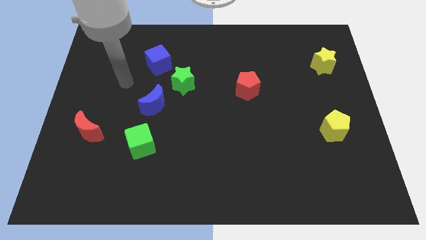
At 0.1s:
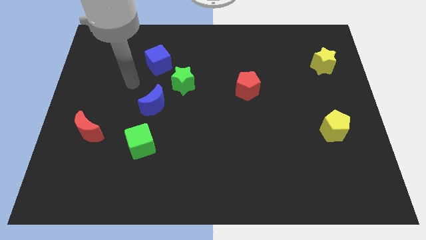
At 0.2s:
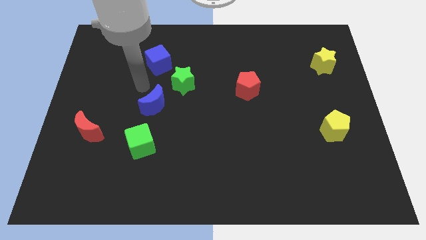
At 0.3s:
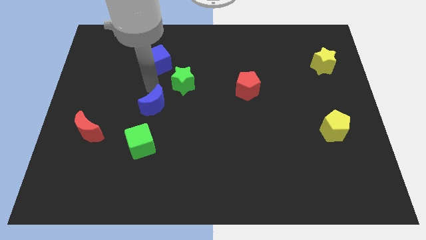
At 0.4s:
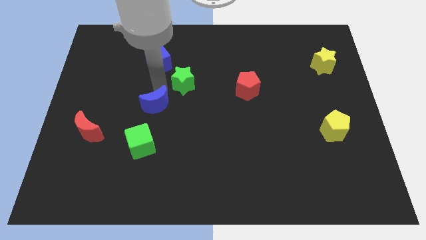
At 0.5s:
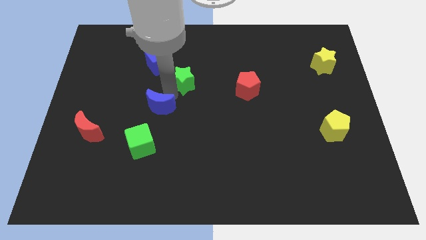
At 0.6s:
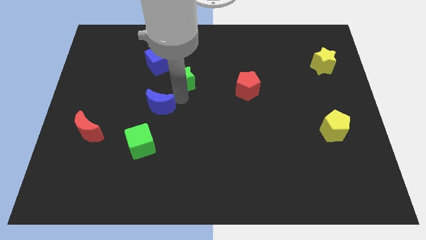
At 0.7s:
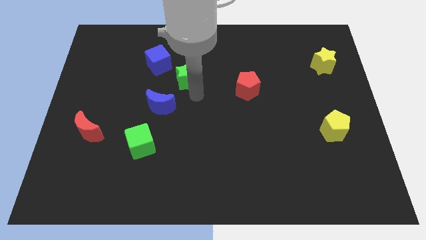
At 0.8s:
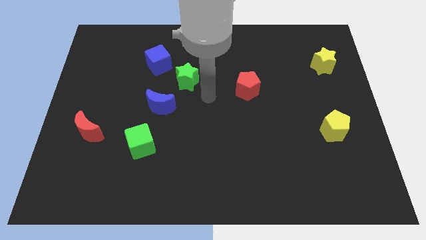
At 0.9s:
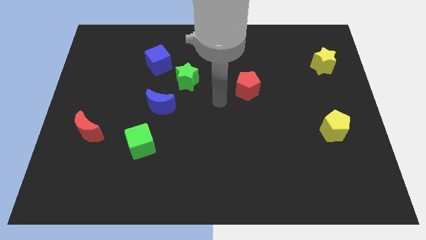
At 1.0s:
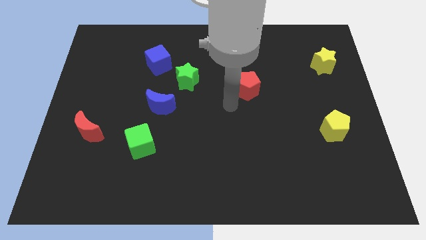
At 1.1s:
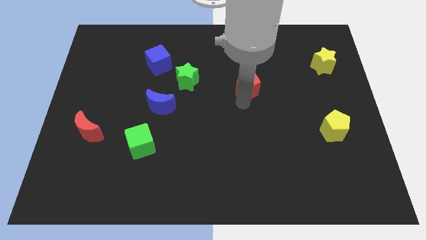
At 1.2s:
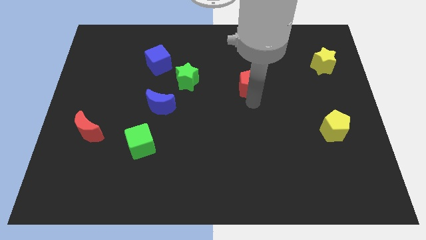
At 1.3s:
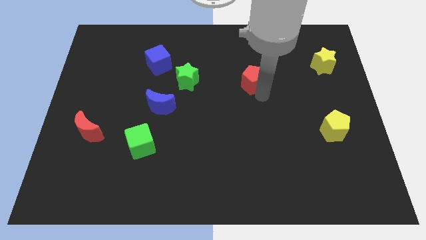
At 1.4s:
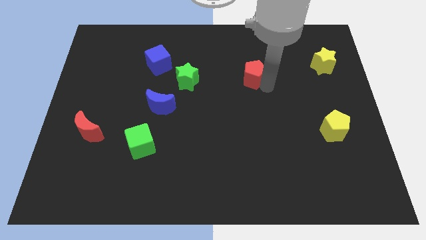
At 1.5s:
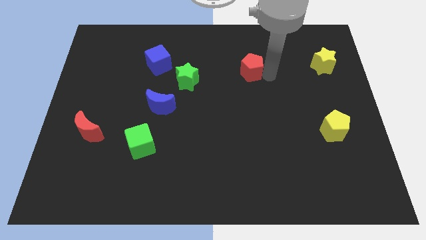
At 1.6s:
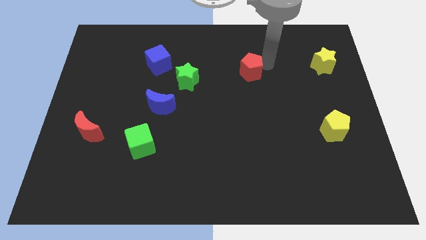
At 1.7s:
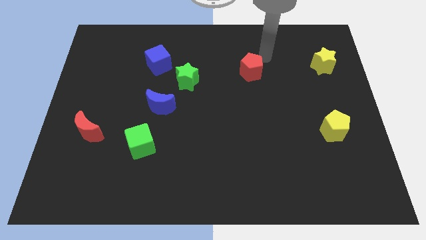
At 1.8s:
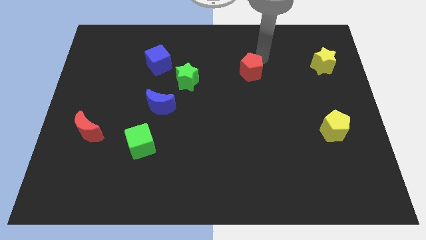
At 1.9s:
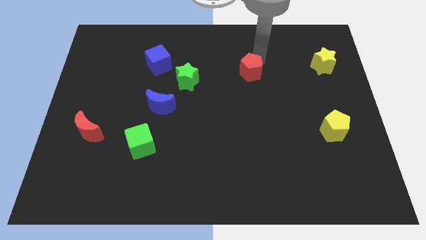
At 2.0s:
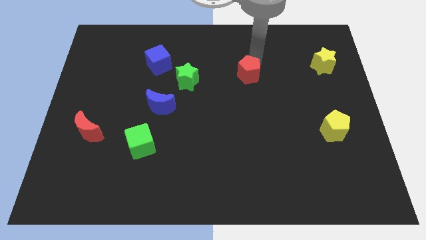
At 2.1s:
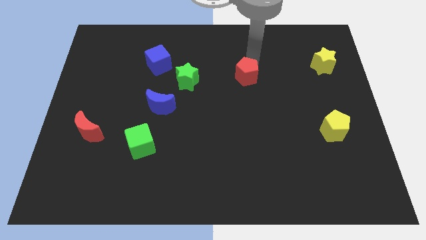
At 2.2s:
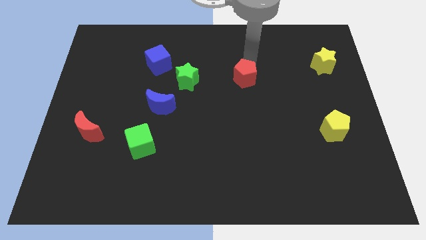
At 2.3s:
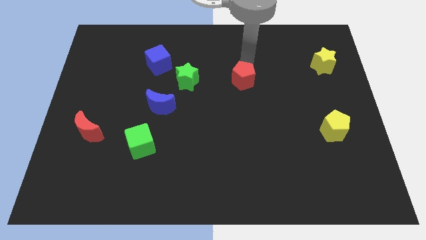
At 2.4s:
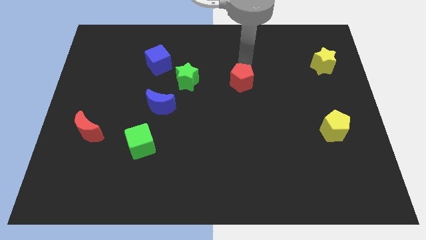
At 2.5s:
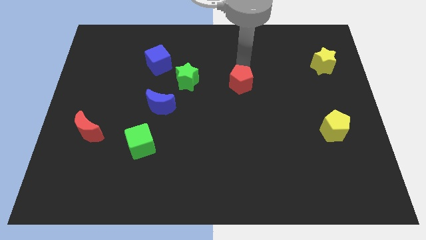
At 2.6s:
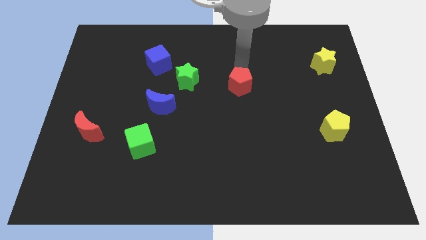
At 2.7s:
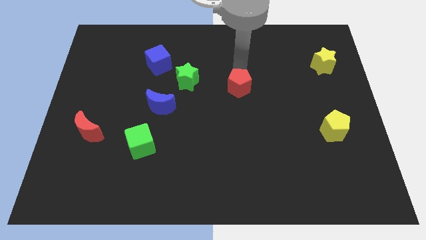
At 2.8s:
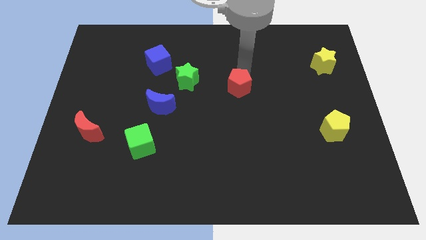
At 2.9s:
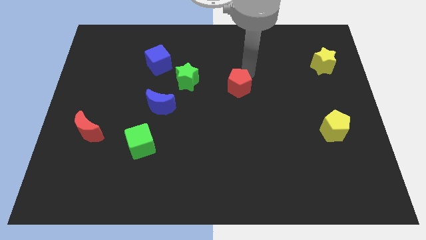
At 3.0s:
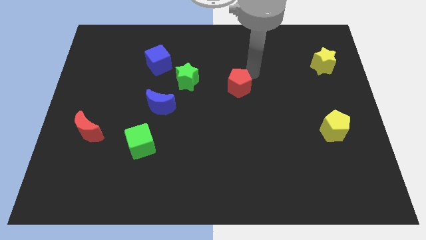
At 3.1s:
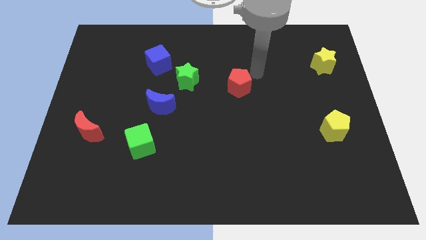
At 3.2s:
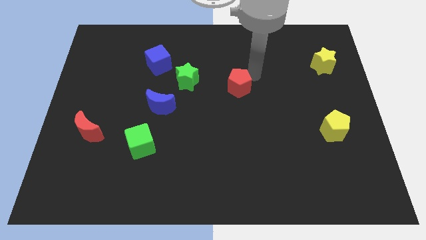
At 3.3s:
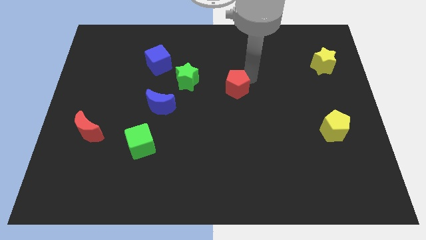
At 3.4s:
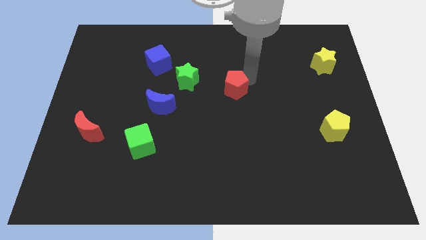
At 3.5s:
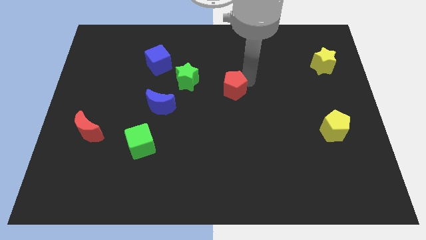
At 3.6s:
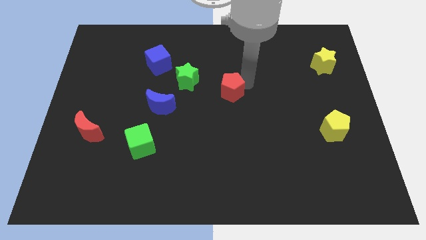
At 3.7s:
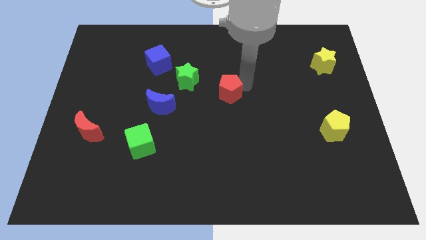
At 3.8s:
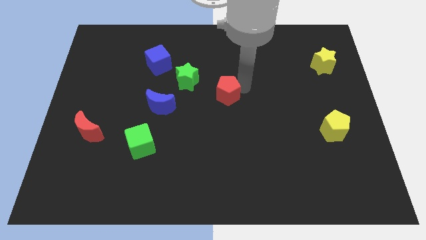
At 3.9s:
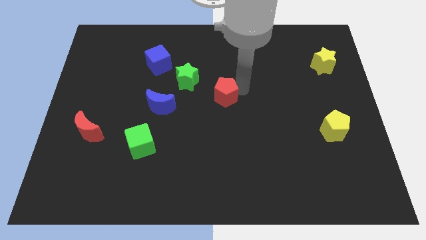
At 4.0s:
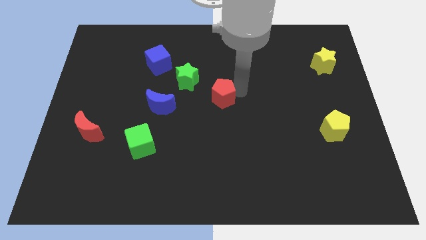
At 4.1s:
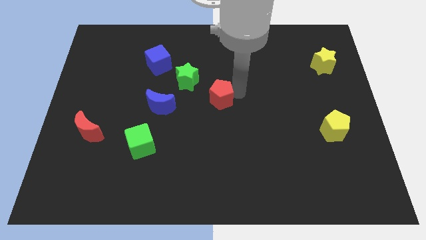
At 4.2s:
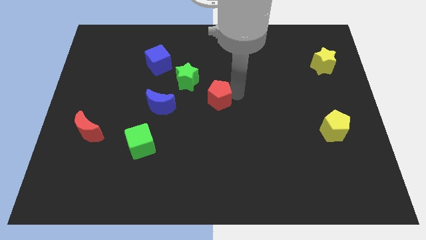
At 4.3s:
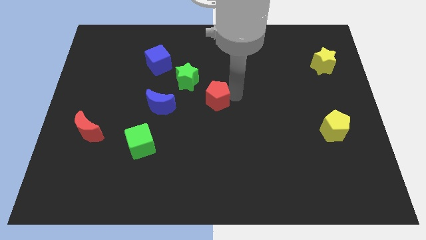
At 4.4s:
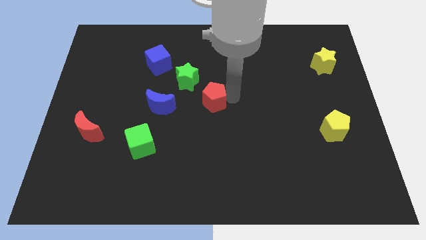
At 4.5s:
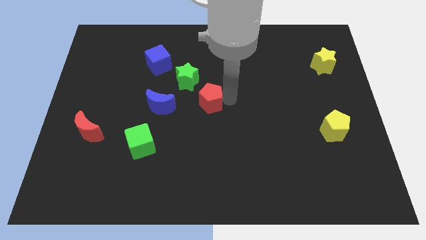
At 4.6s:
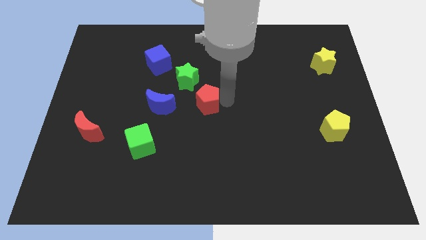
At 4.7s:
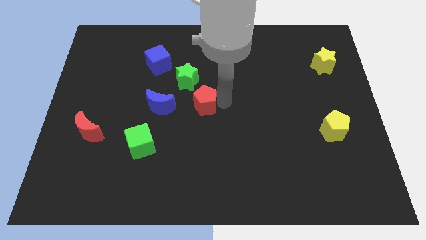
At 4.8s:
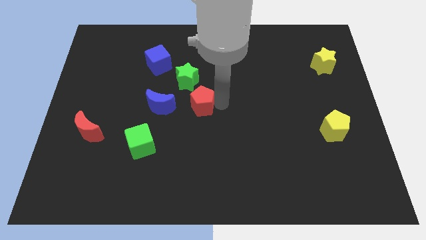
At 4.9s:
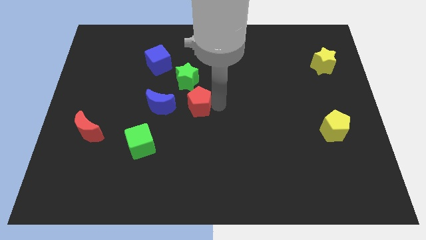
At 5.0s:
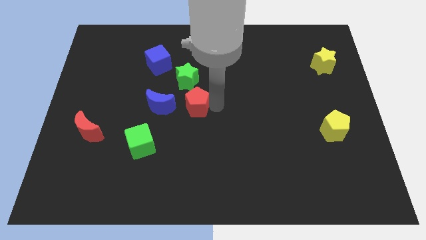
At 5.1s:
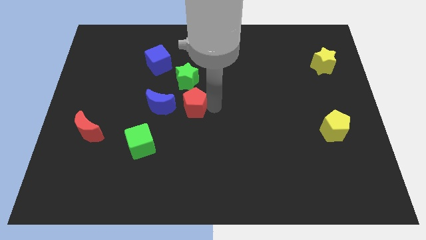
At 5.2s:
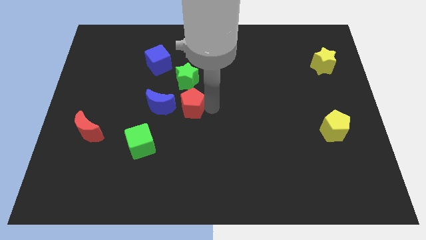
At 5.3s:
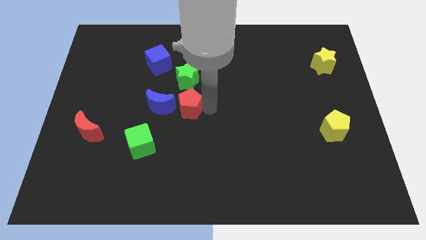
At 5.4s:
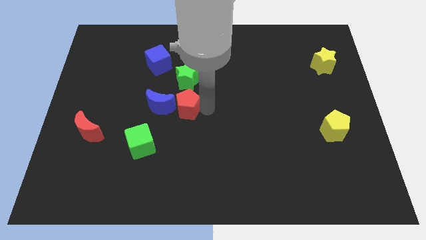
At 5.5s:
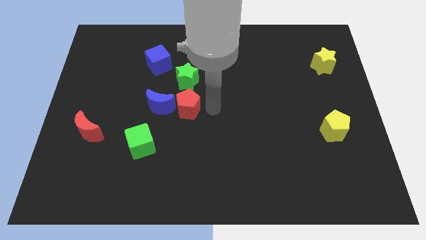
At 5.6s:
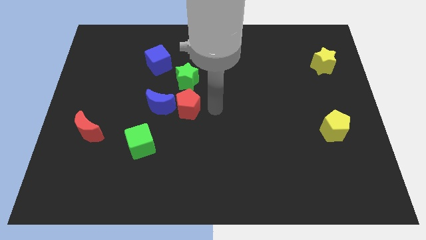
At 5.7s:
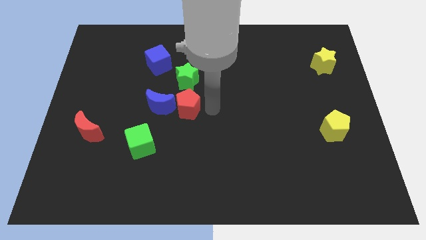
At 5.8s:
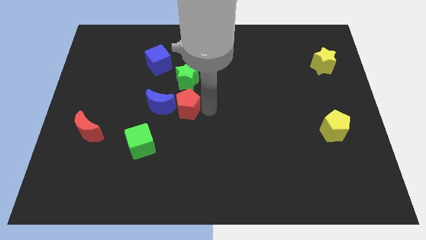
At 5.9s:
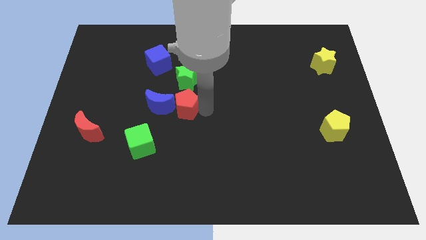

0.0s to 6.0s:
move the red pentagon towards the blue moon
